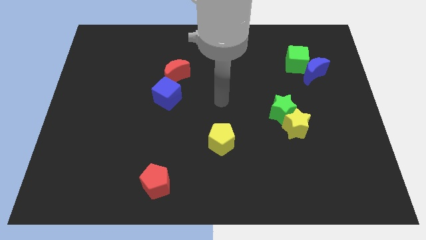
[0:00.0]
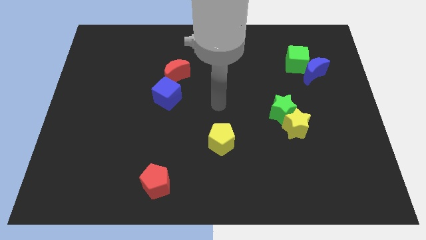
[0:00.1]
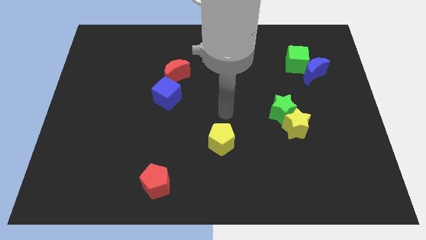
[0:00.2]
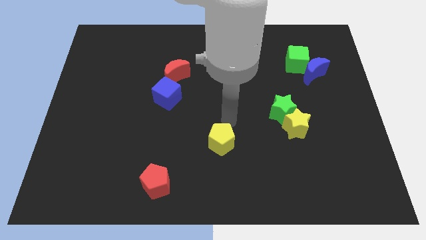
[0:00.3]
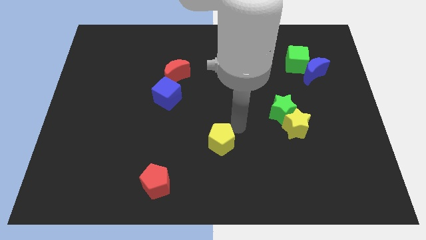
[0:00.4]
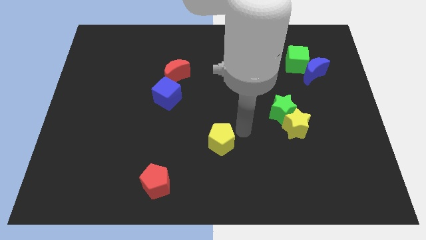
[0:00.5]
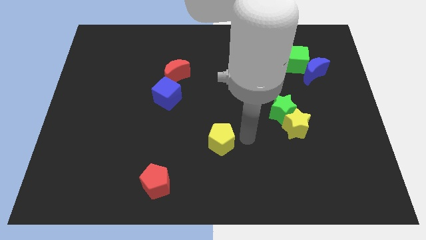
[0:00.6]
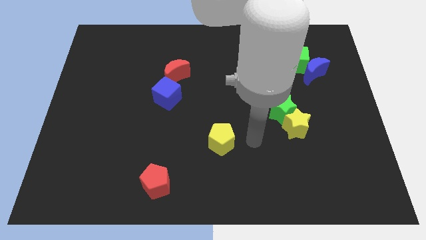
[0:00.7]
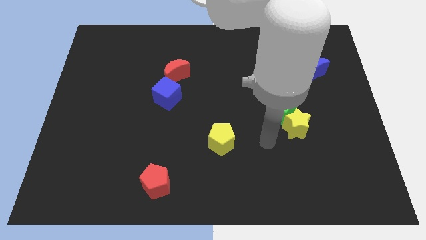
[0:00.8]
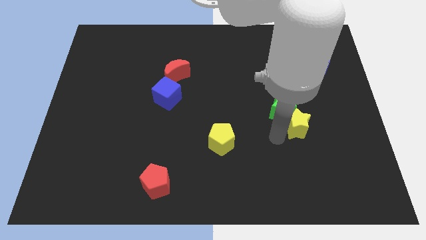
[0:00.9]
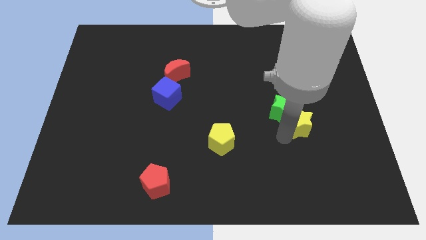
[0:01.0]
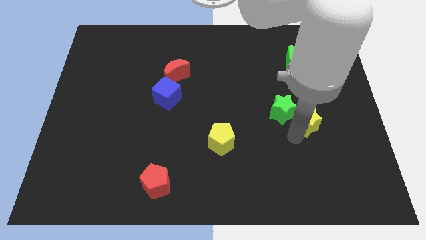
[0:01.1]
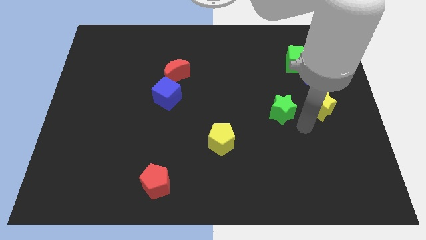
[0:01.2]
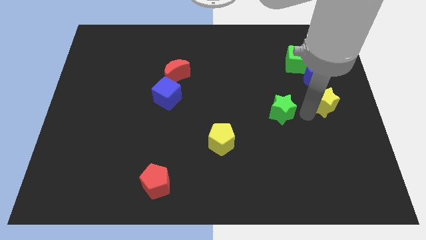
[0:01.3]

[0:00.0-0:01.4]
pull the green star apart from the yellow star

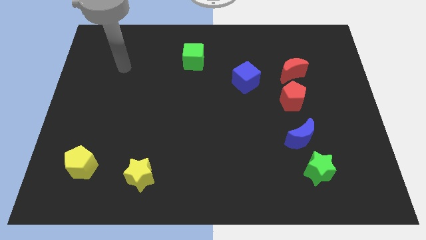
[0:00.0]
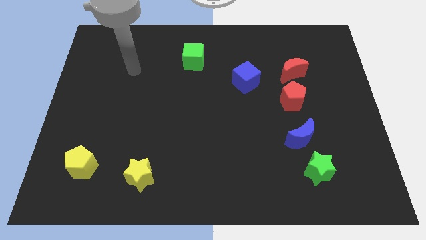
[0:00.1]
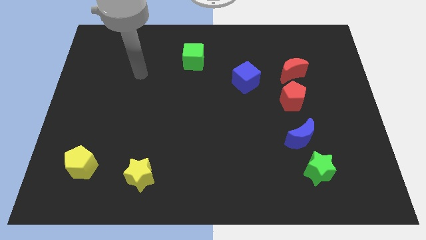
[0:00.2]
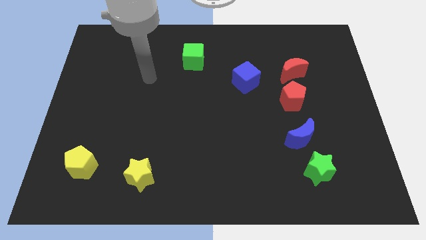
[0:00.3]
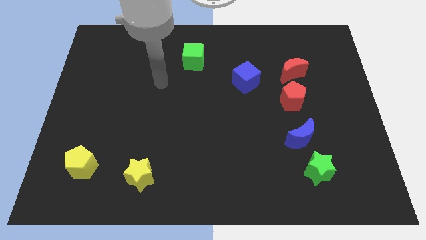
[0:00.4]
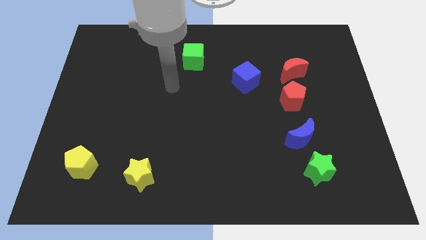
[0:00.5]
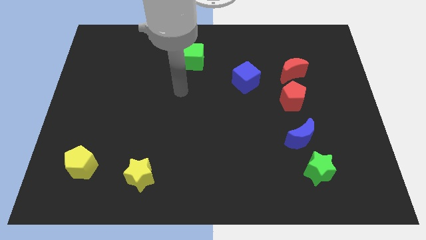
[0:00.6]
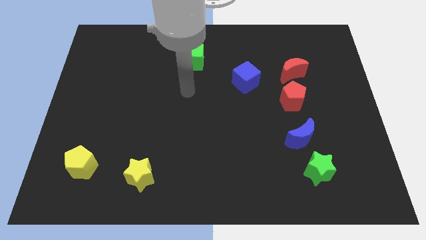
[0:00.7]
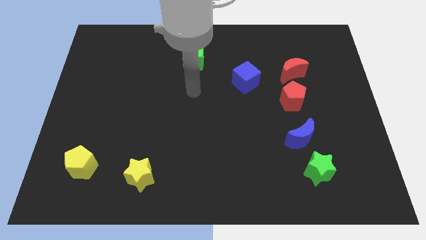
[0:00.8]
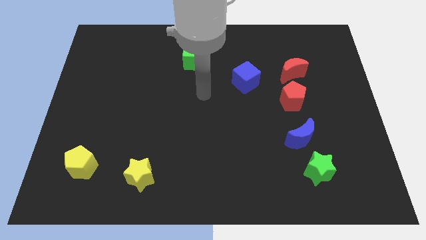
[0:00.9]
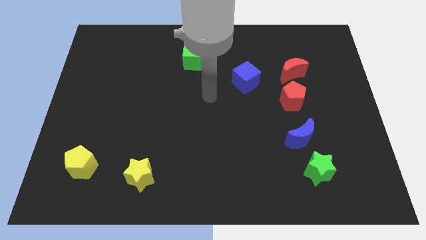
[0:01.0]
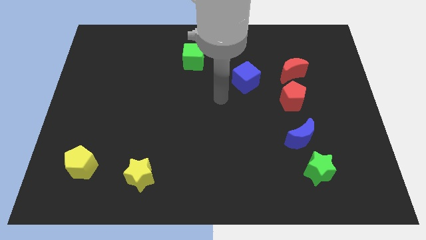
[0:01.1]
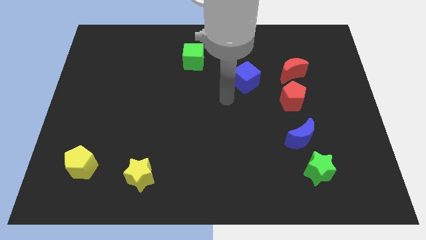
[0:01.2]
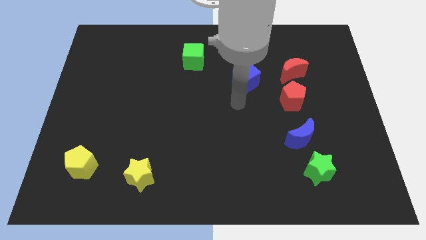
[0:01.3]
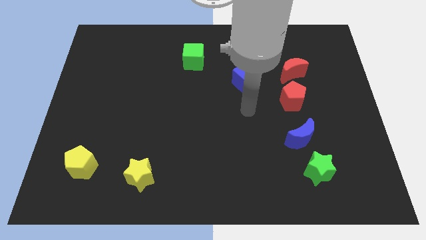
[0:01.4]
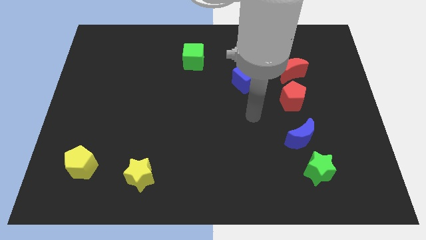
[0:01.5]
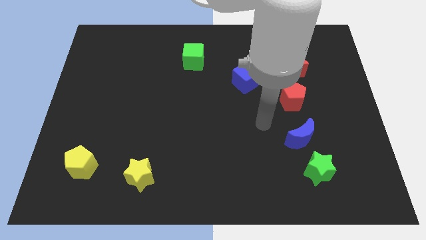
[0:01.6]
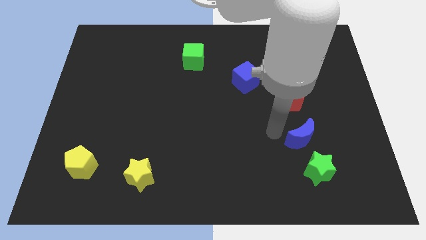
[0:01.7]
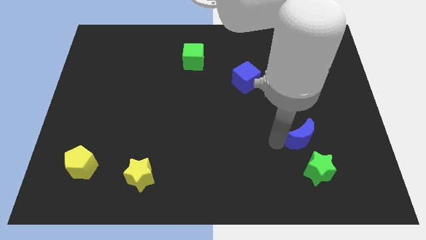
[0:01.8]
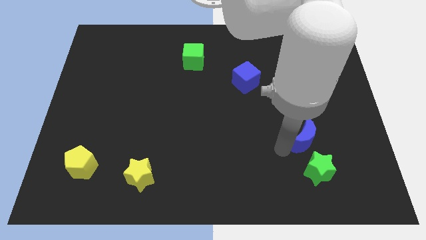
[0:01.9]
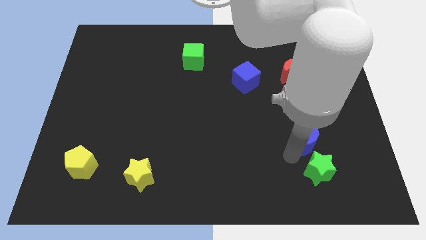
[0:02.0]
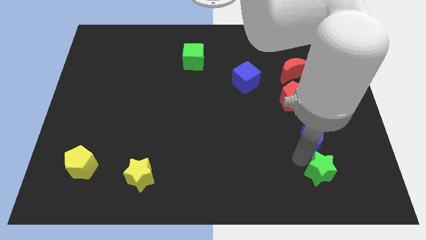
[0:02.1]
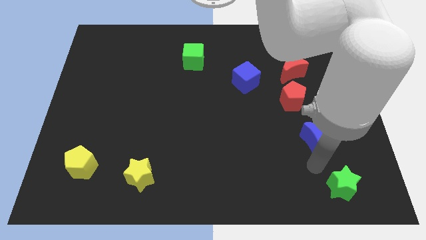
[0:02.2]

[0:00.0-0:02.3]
separate the blue moon from the green star

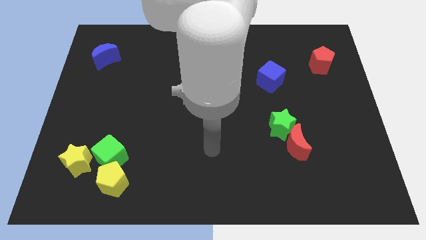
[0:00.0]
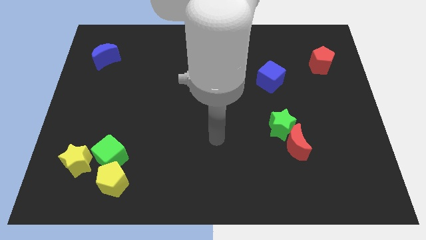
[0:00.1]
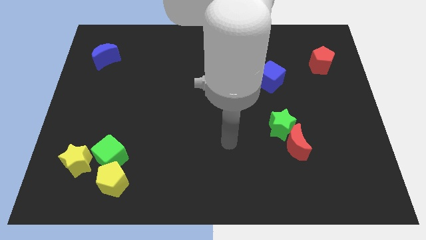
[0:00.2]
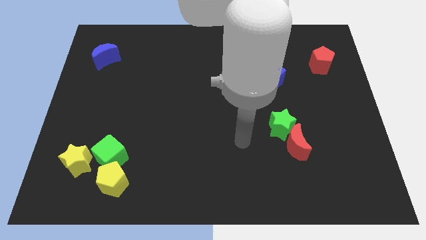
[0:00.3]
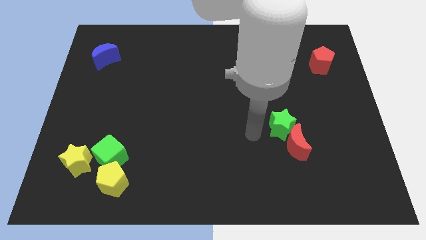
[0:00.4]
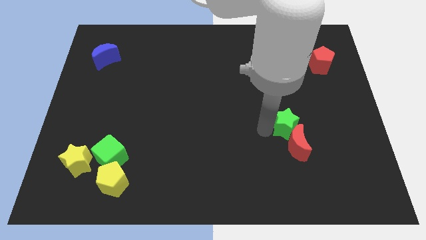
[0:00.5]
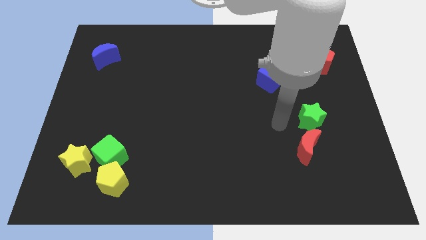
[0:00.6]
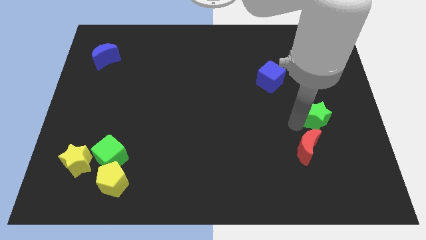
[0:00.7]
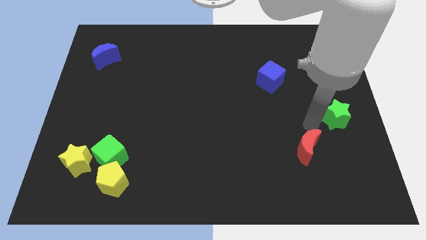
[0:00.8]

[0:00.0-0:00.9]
separate the red moon from the green star

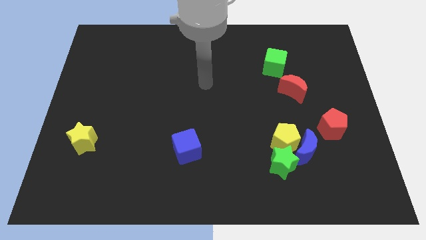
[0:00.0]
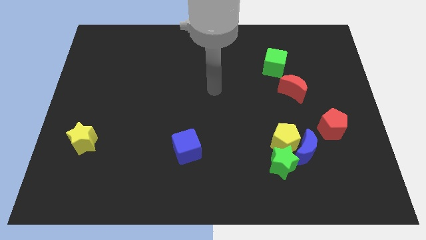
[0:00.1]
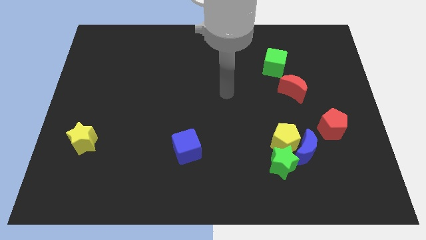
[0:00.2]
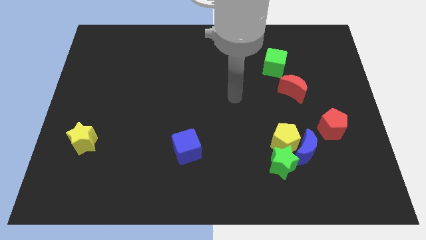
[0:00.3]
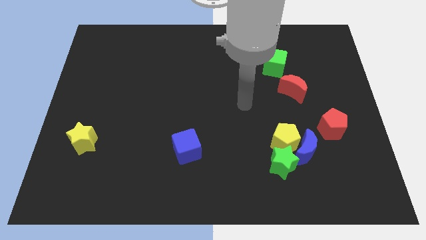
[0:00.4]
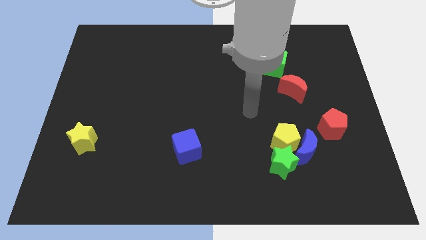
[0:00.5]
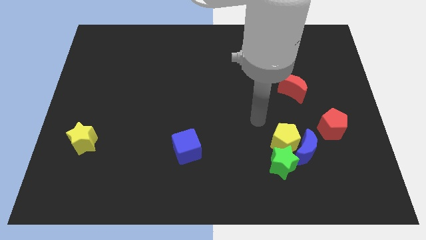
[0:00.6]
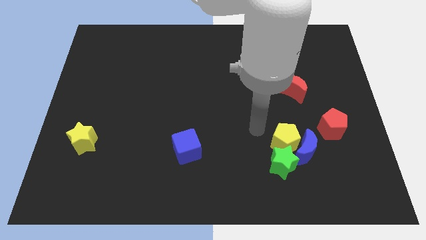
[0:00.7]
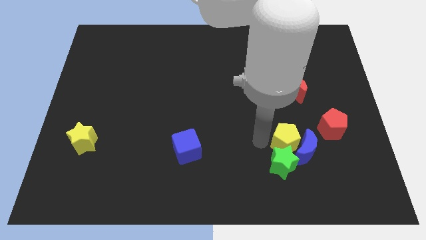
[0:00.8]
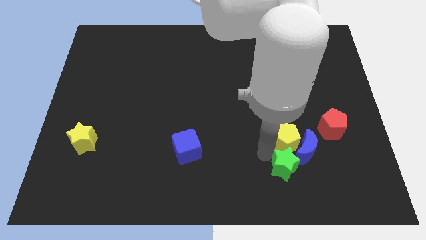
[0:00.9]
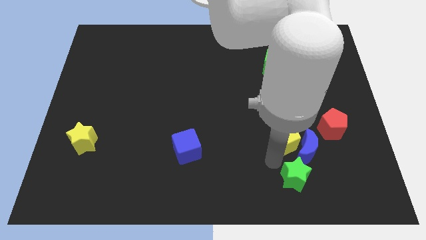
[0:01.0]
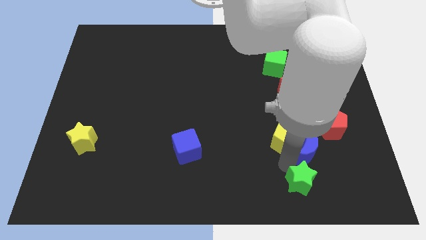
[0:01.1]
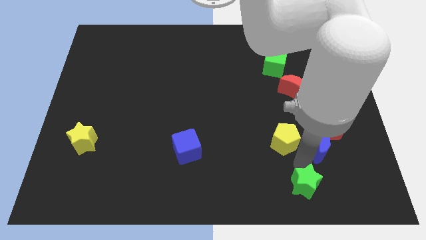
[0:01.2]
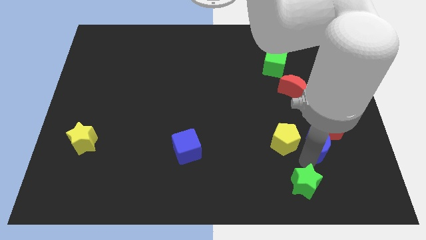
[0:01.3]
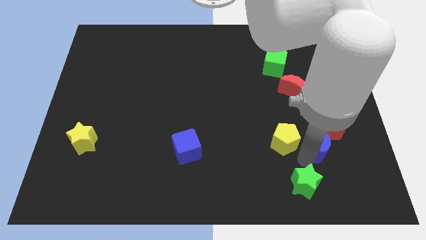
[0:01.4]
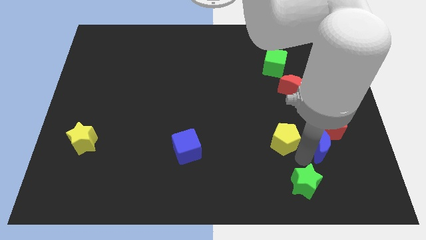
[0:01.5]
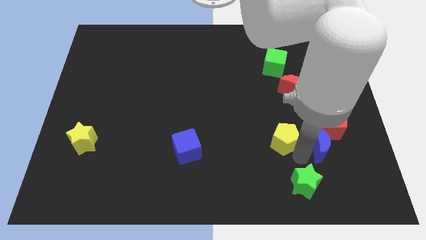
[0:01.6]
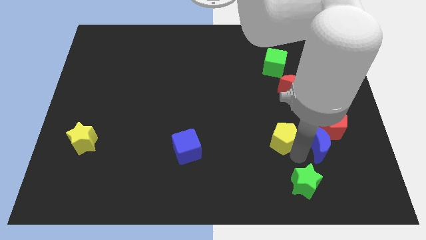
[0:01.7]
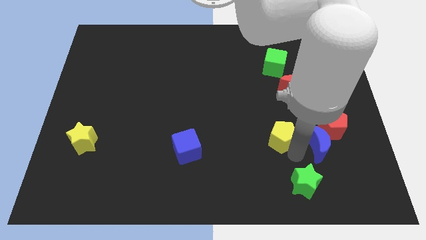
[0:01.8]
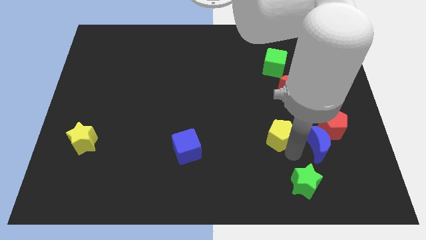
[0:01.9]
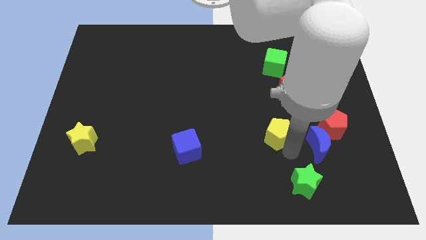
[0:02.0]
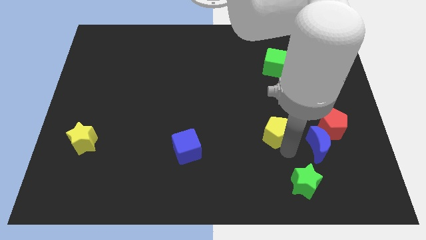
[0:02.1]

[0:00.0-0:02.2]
move the yellow pentagon away from the blue moon and green star

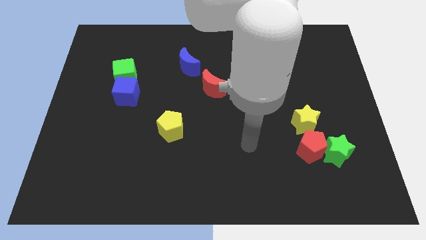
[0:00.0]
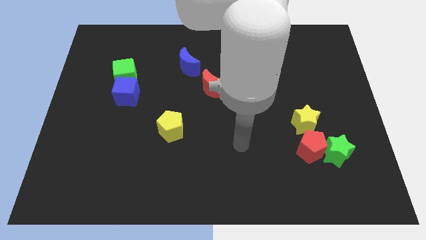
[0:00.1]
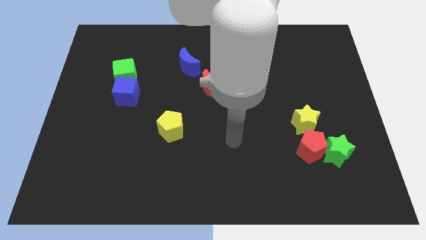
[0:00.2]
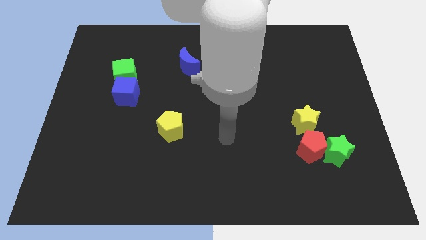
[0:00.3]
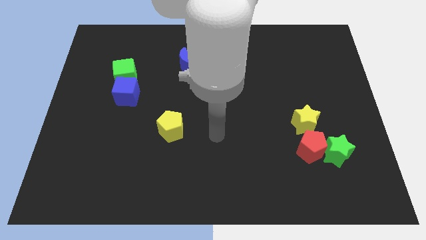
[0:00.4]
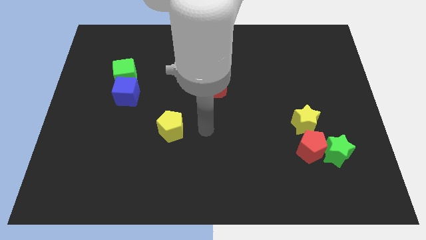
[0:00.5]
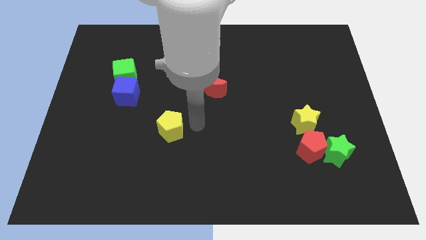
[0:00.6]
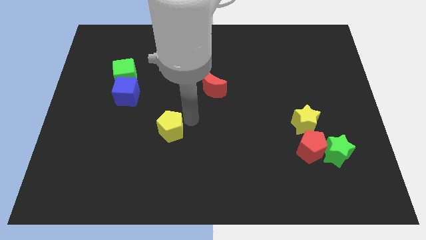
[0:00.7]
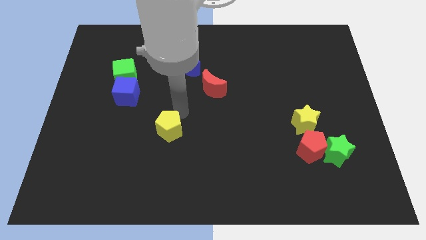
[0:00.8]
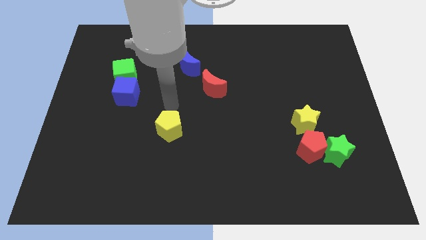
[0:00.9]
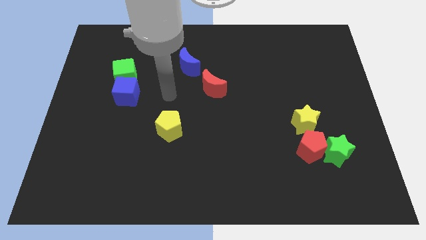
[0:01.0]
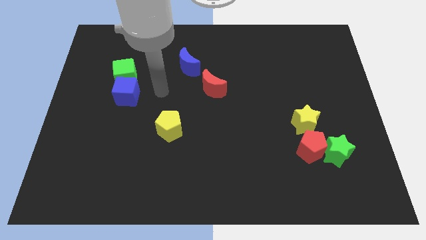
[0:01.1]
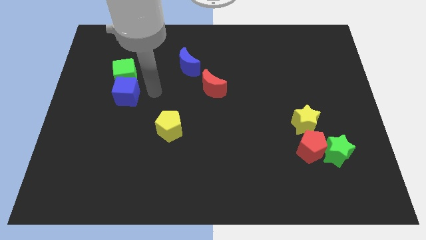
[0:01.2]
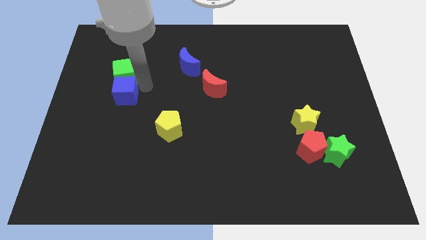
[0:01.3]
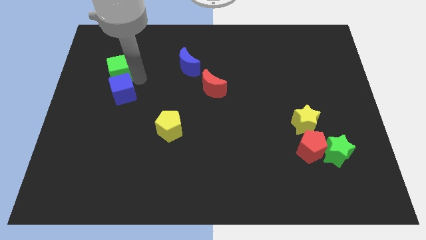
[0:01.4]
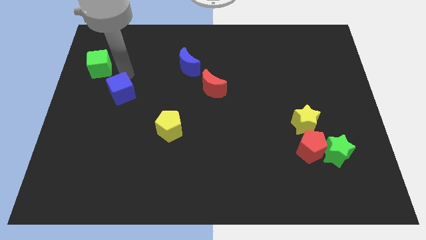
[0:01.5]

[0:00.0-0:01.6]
separate the blue cube from the green cube

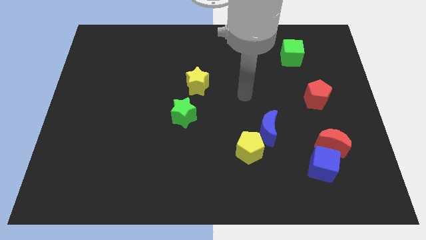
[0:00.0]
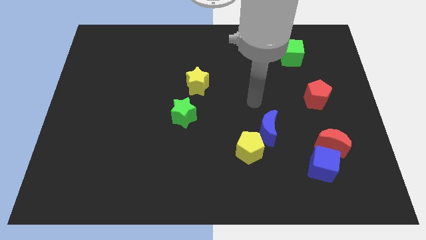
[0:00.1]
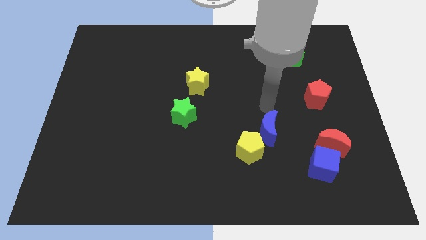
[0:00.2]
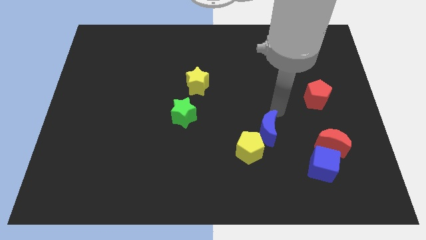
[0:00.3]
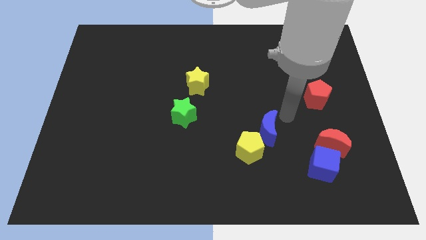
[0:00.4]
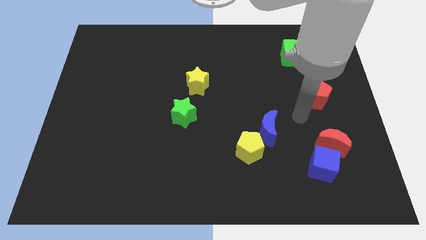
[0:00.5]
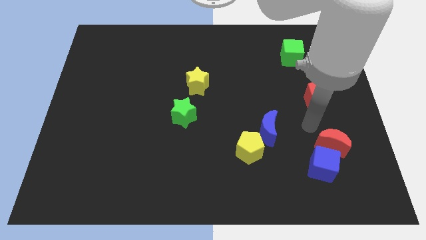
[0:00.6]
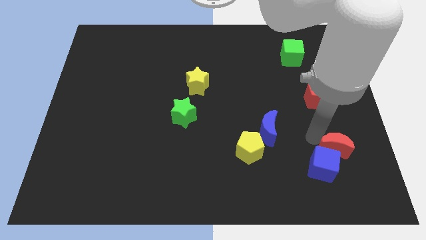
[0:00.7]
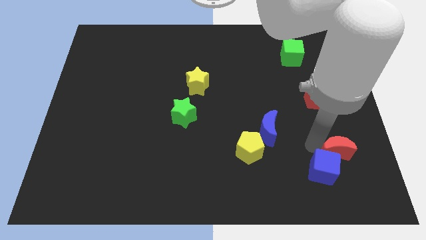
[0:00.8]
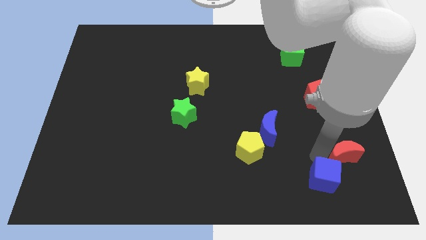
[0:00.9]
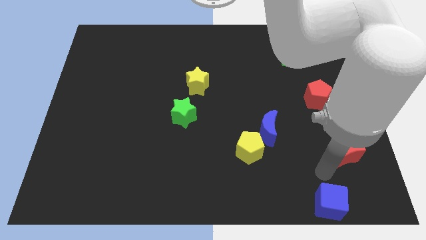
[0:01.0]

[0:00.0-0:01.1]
pull the red moon apart from the blue cube
